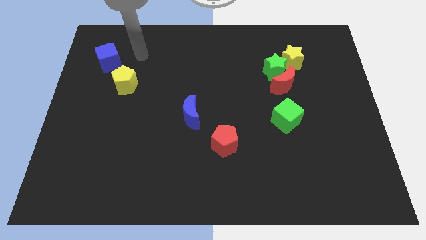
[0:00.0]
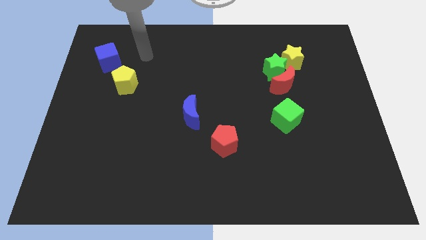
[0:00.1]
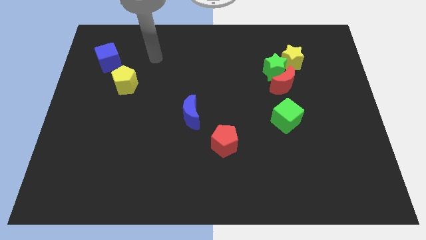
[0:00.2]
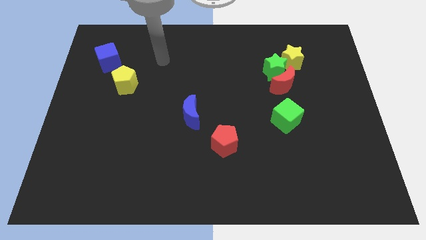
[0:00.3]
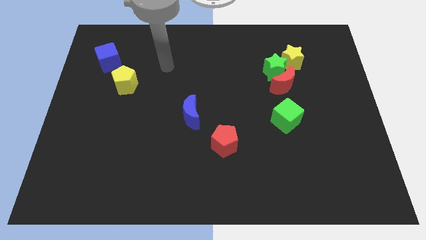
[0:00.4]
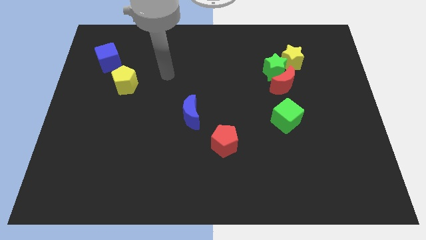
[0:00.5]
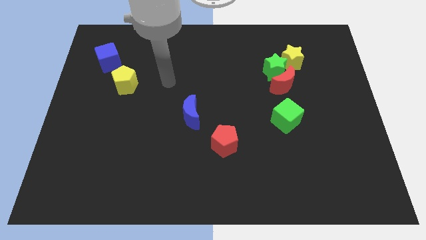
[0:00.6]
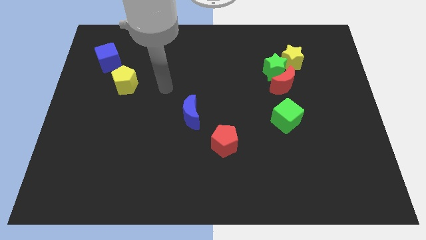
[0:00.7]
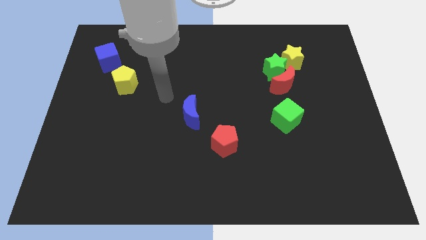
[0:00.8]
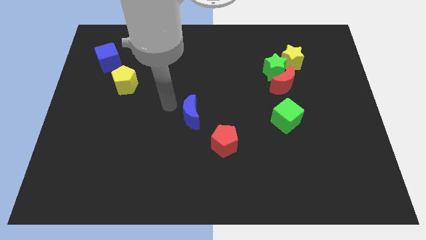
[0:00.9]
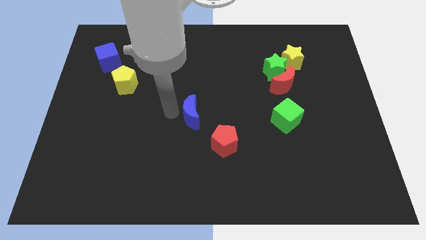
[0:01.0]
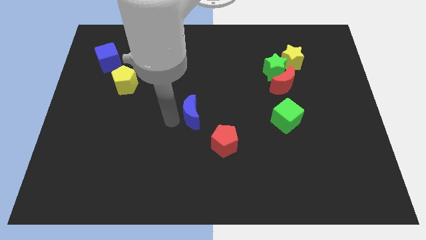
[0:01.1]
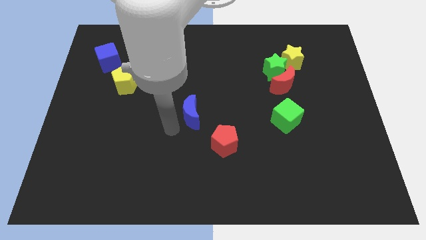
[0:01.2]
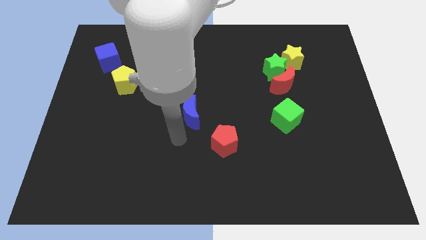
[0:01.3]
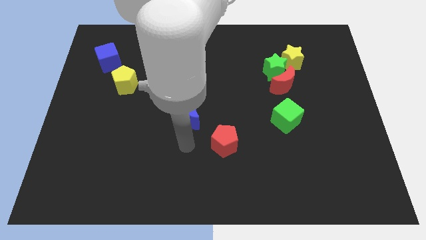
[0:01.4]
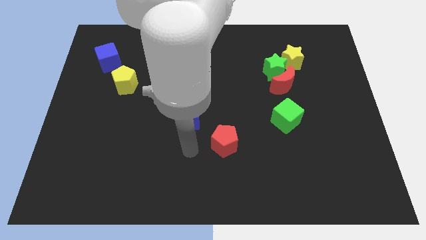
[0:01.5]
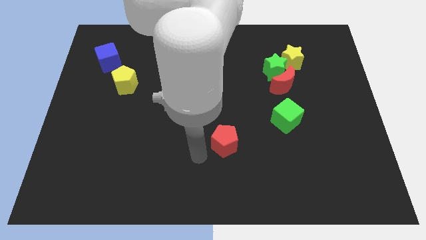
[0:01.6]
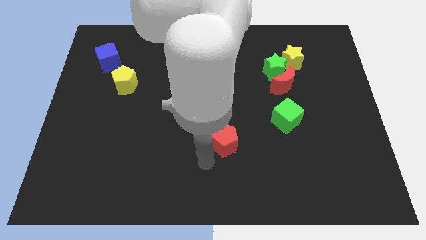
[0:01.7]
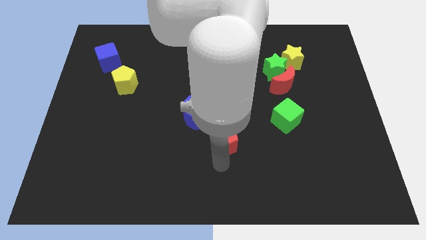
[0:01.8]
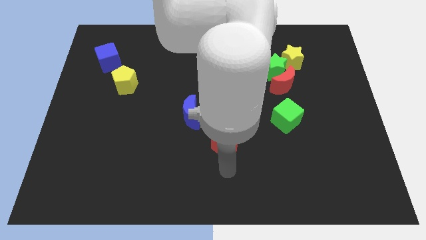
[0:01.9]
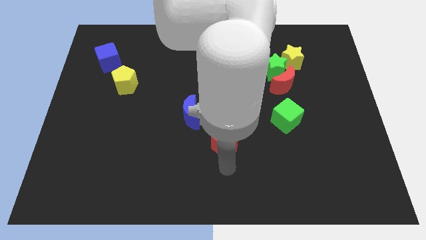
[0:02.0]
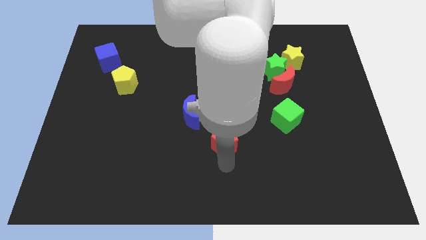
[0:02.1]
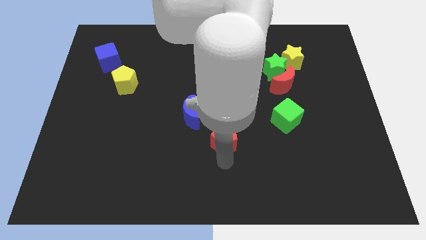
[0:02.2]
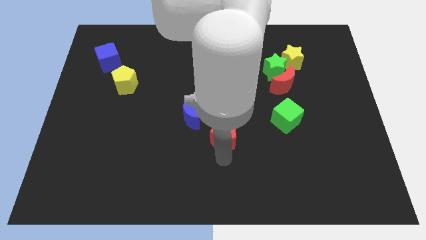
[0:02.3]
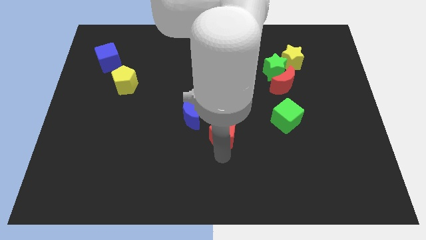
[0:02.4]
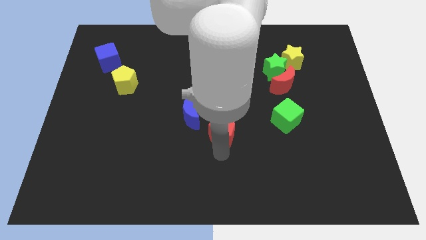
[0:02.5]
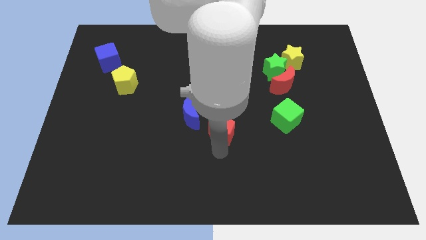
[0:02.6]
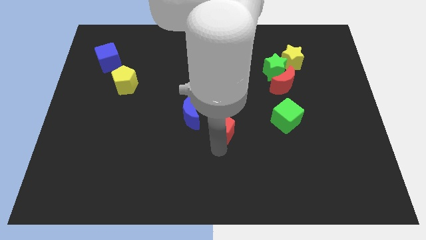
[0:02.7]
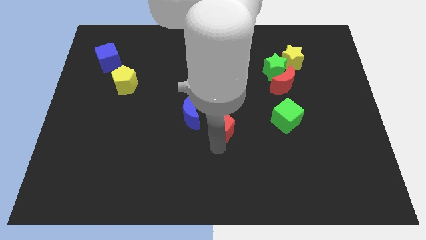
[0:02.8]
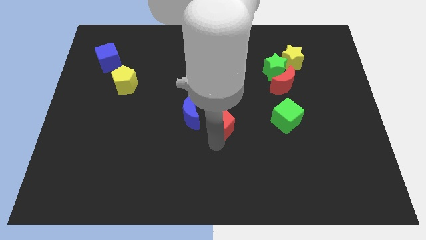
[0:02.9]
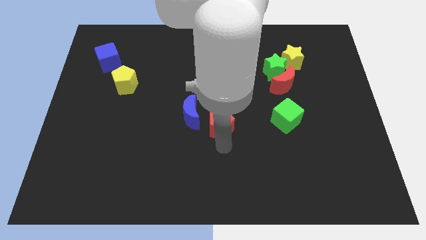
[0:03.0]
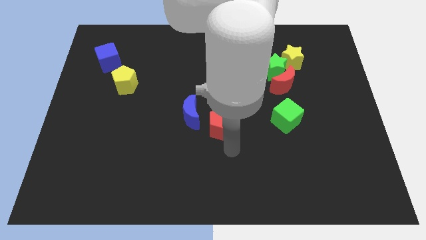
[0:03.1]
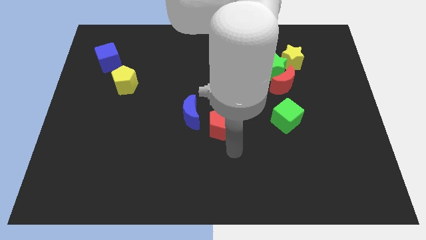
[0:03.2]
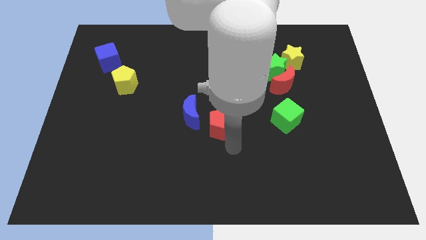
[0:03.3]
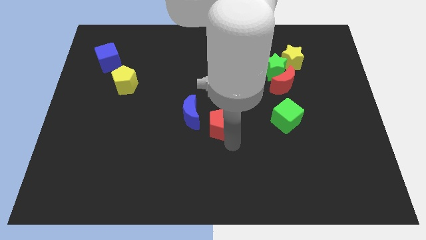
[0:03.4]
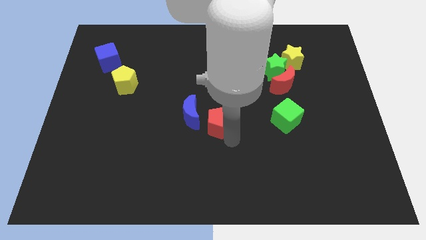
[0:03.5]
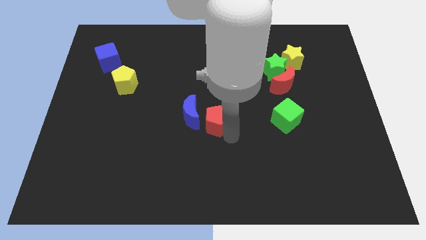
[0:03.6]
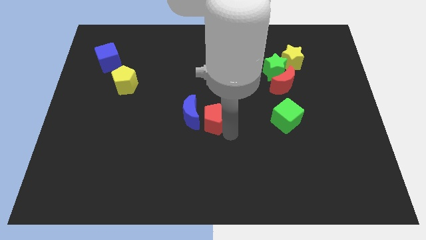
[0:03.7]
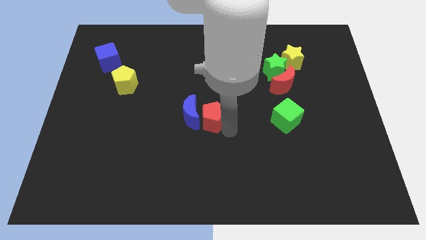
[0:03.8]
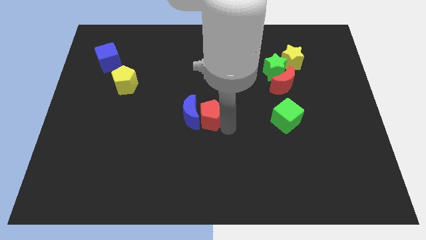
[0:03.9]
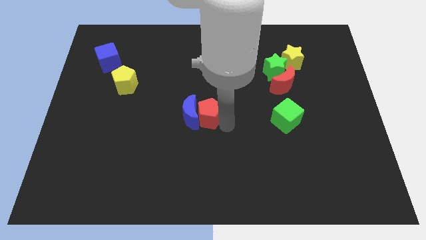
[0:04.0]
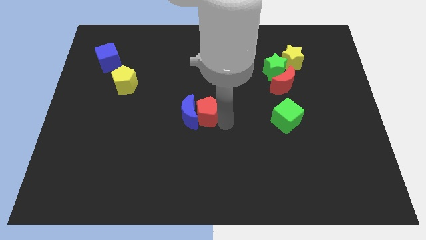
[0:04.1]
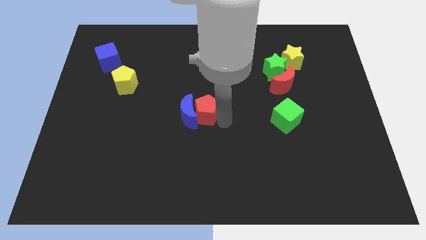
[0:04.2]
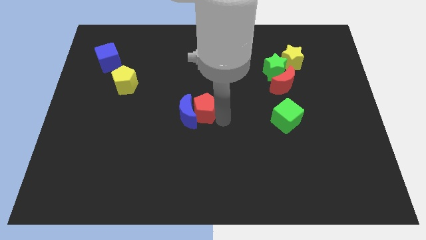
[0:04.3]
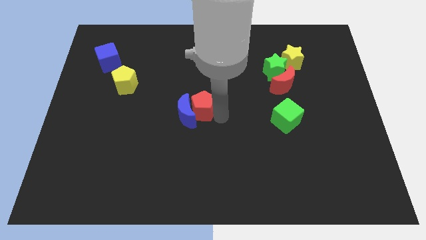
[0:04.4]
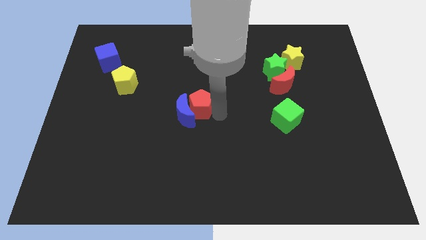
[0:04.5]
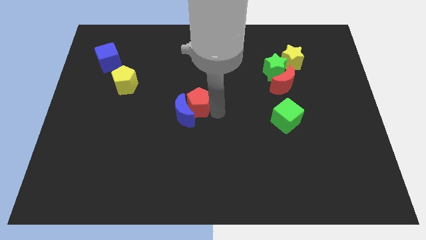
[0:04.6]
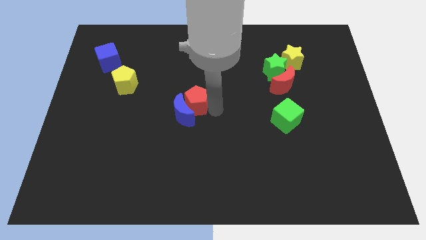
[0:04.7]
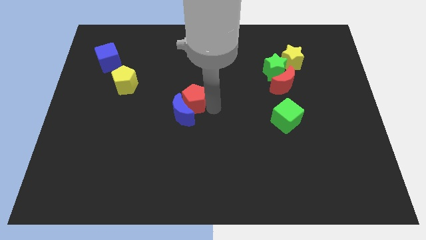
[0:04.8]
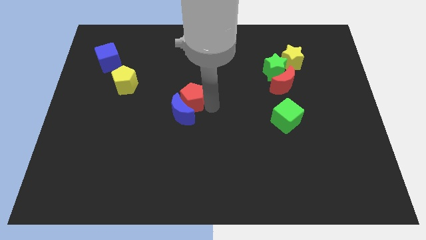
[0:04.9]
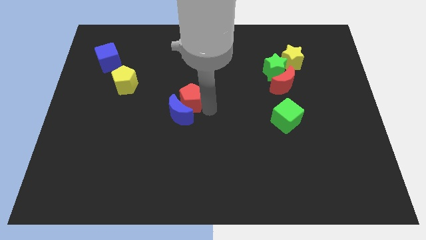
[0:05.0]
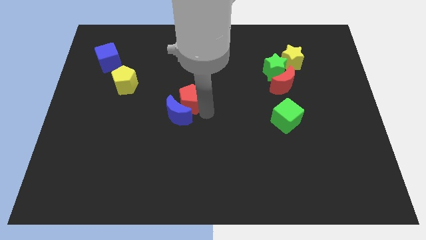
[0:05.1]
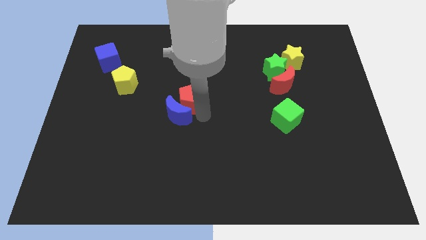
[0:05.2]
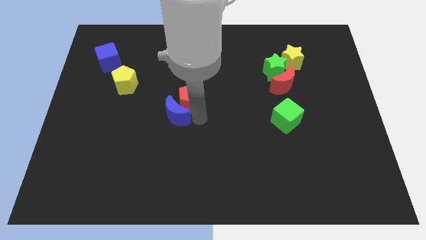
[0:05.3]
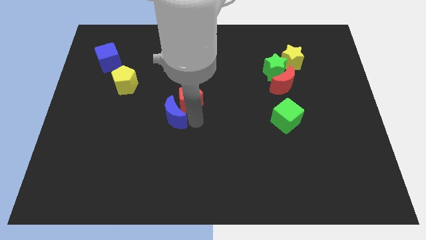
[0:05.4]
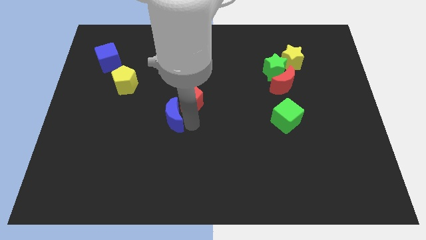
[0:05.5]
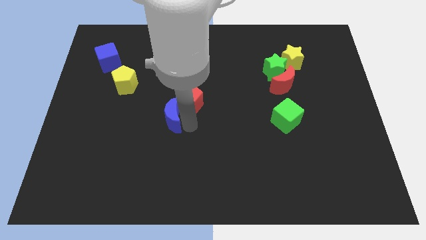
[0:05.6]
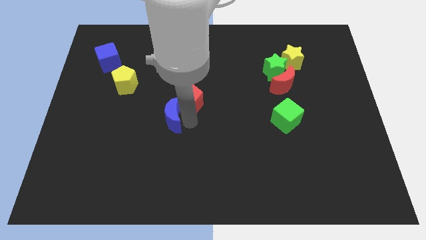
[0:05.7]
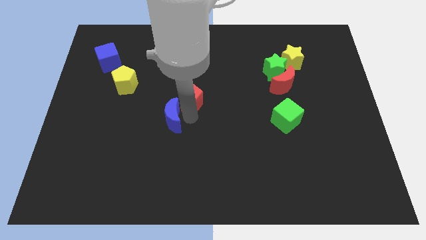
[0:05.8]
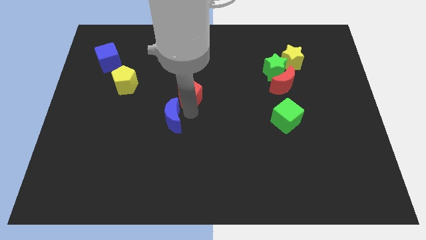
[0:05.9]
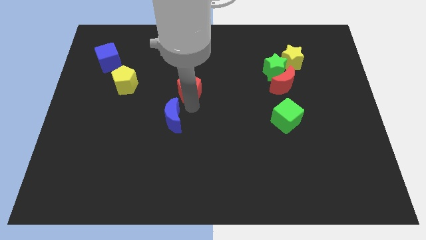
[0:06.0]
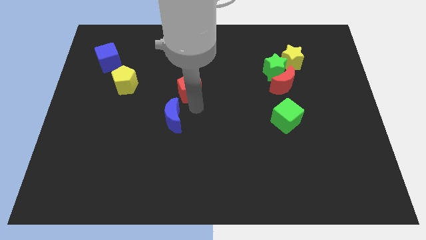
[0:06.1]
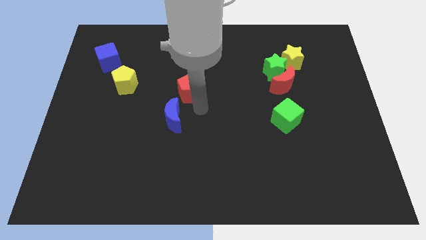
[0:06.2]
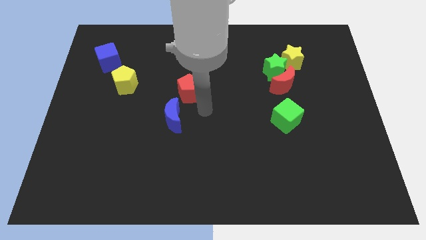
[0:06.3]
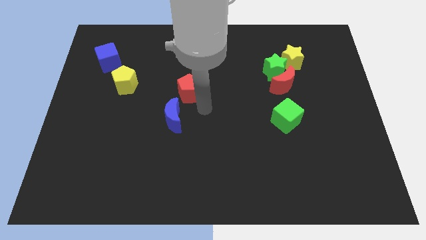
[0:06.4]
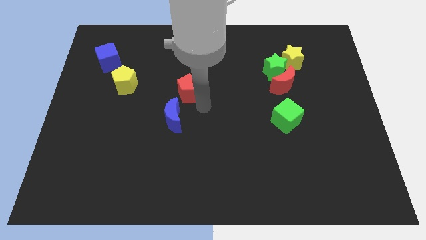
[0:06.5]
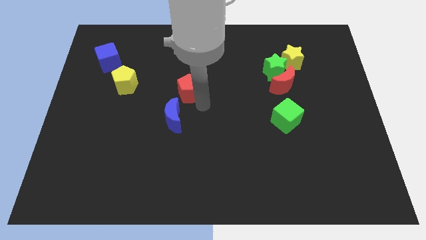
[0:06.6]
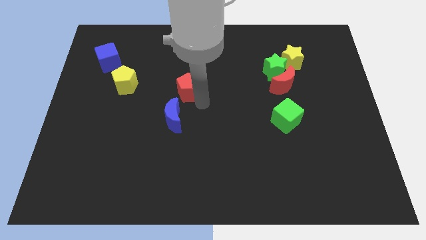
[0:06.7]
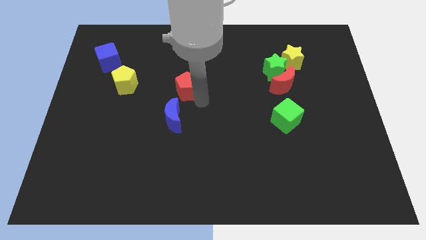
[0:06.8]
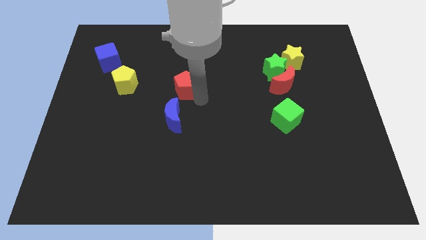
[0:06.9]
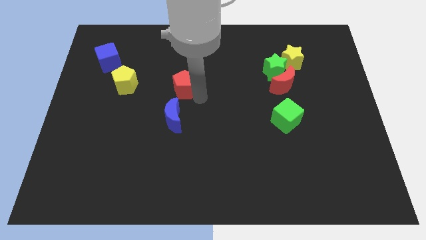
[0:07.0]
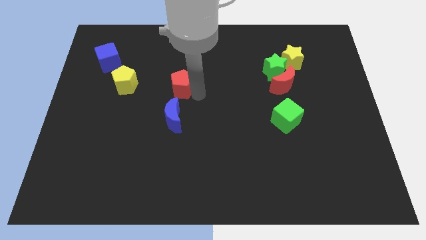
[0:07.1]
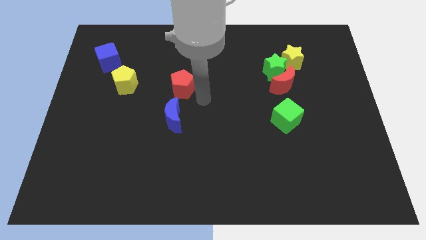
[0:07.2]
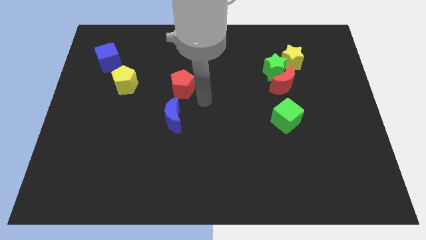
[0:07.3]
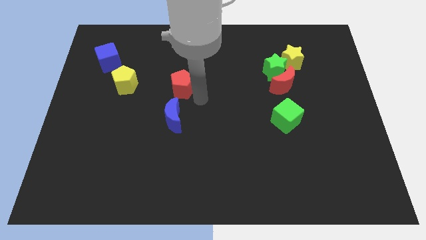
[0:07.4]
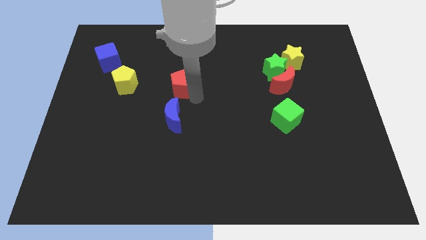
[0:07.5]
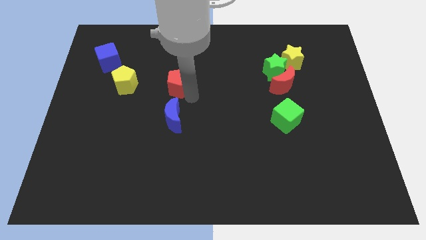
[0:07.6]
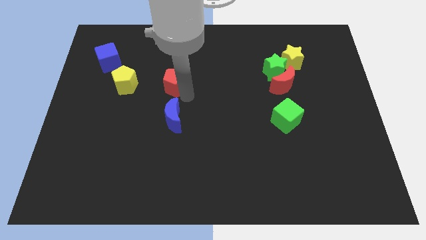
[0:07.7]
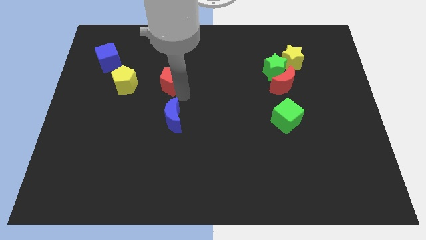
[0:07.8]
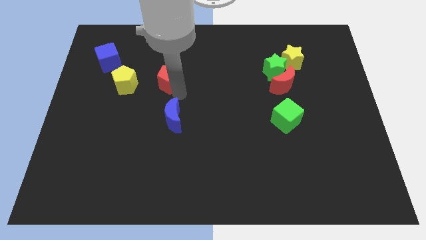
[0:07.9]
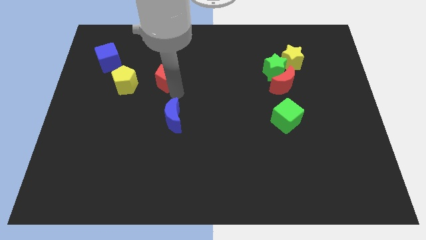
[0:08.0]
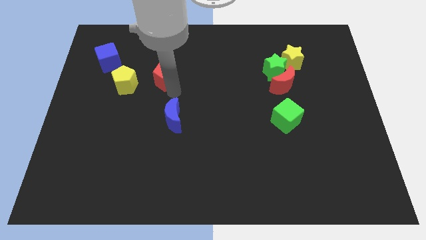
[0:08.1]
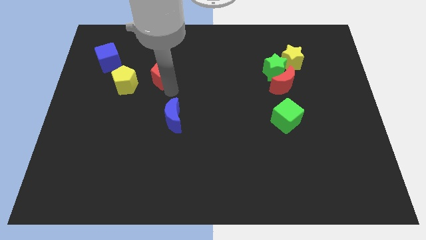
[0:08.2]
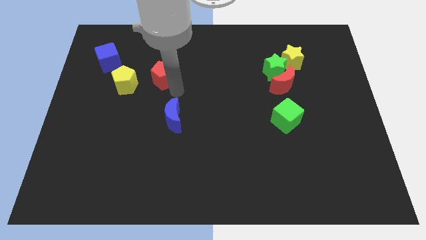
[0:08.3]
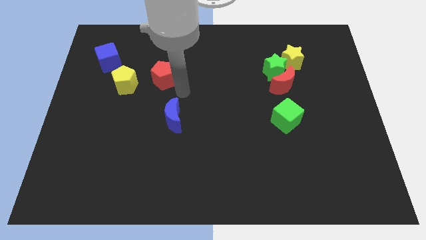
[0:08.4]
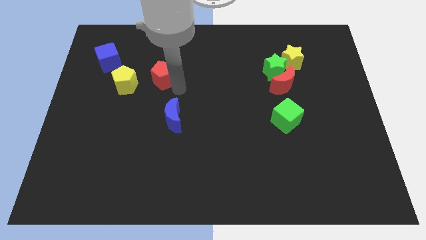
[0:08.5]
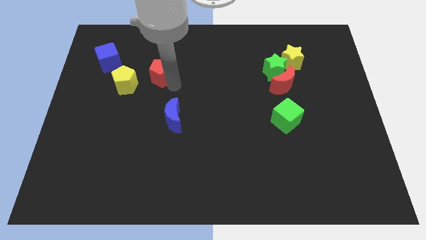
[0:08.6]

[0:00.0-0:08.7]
slide the red pentagon to the top right of the yellow pentagon
